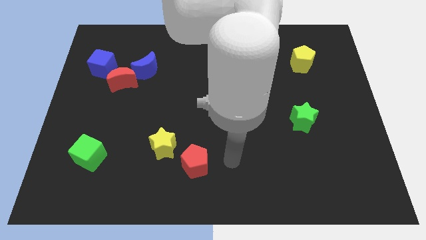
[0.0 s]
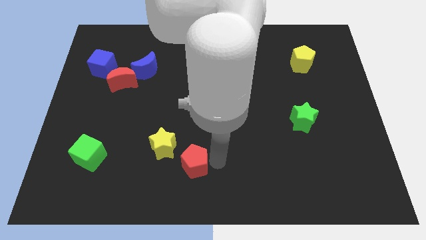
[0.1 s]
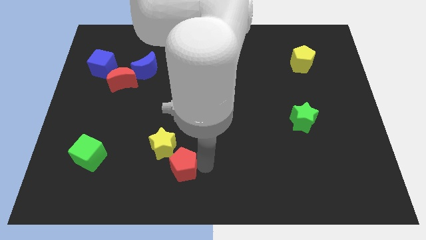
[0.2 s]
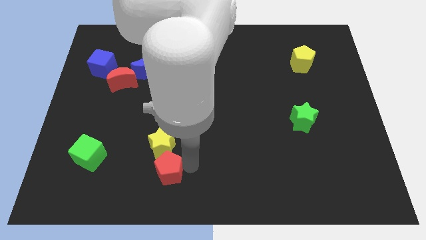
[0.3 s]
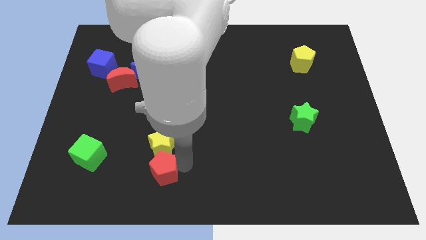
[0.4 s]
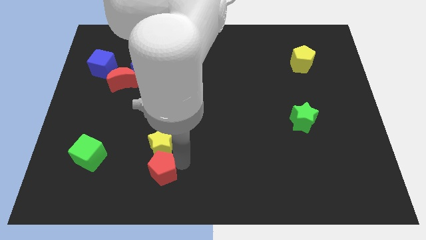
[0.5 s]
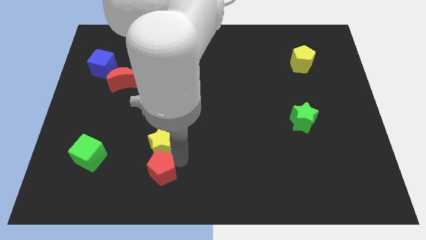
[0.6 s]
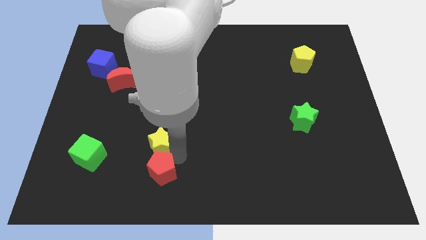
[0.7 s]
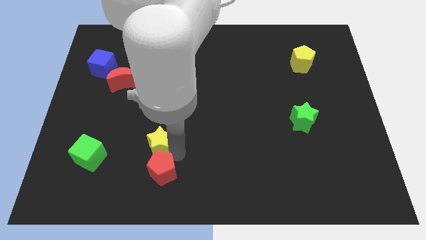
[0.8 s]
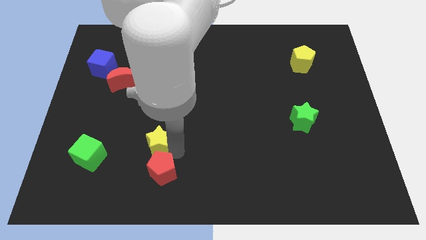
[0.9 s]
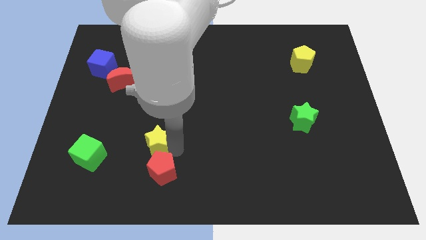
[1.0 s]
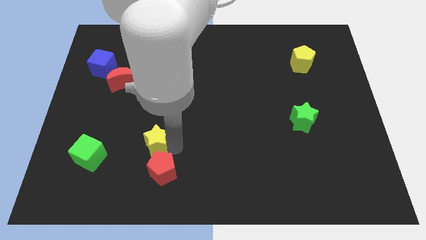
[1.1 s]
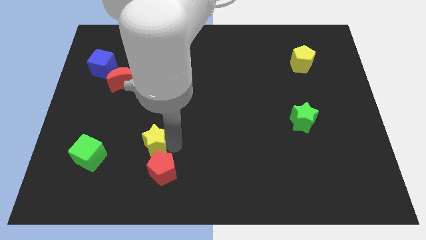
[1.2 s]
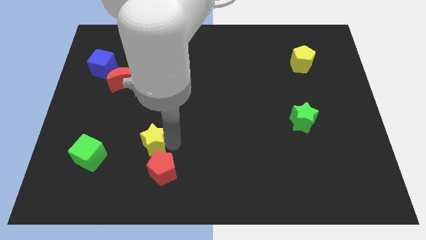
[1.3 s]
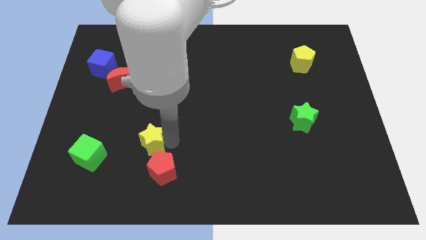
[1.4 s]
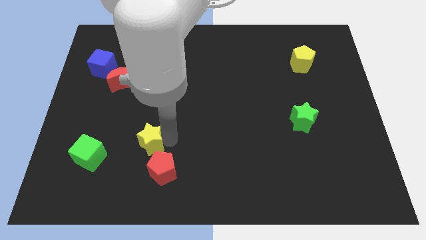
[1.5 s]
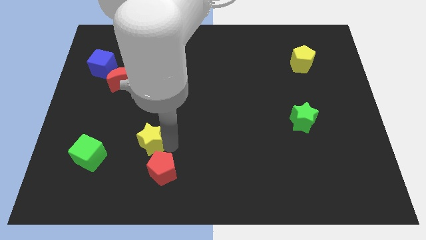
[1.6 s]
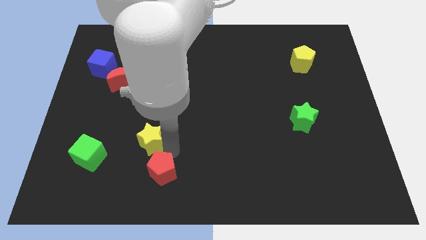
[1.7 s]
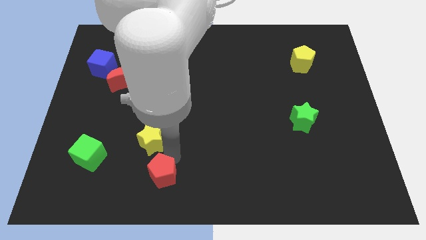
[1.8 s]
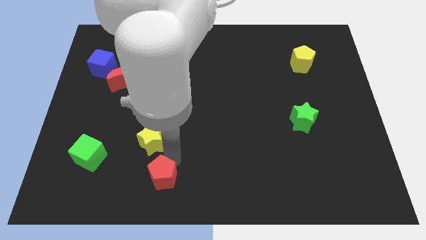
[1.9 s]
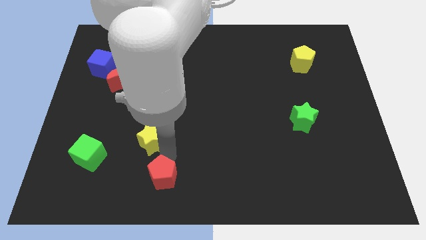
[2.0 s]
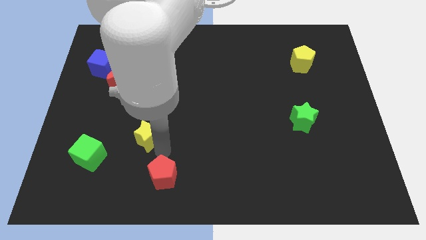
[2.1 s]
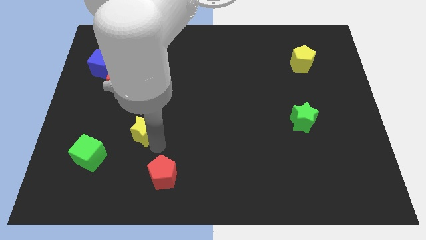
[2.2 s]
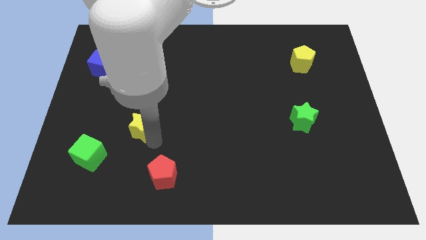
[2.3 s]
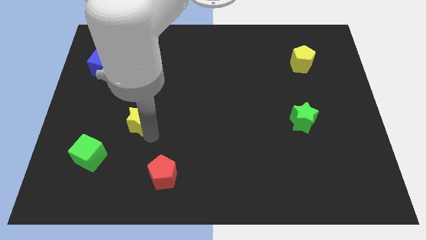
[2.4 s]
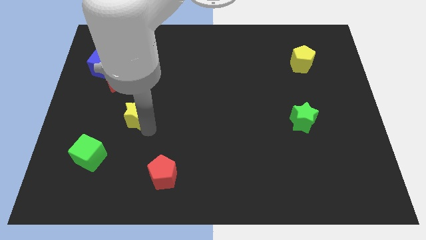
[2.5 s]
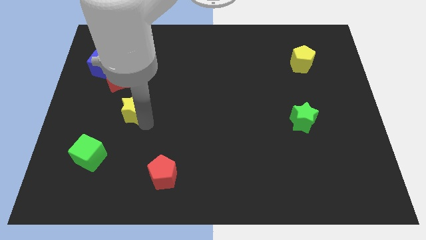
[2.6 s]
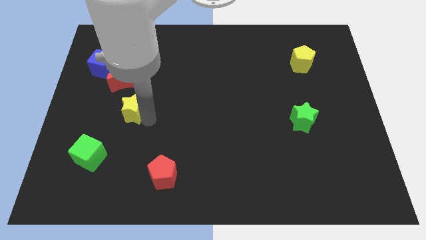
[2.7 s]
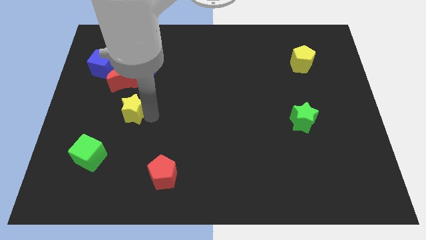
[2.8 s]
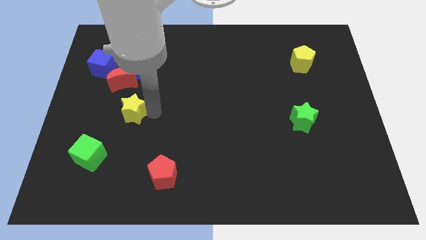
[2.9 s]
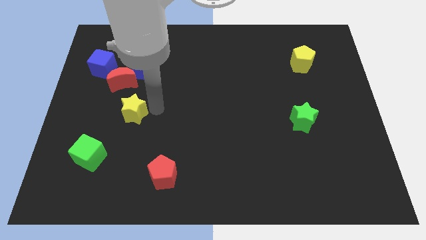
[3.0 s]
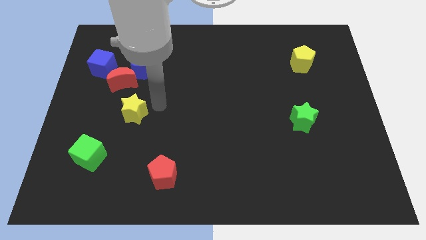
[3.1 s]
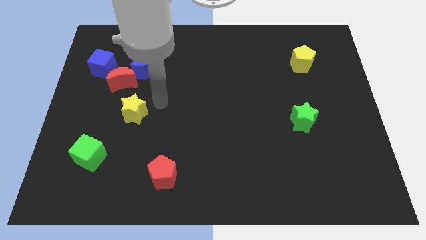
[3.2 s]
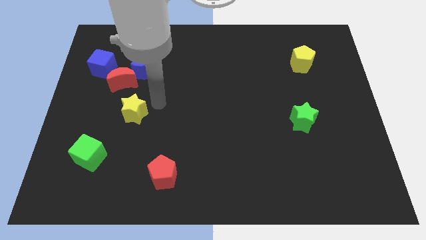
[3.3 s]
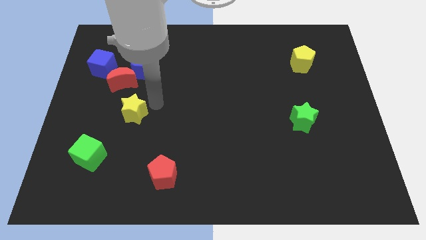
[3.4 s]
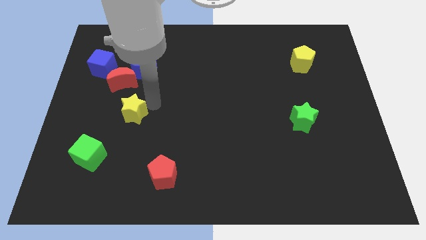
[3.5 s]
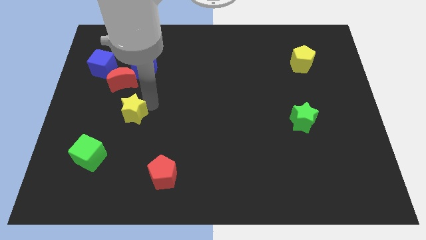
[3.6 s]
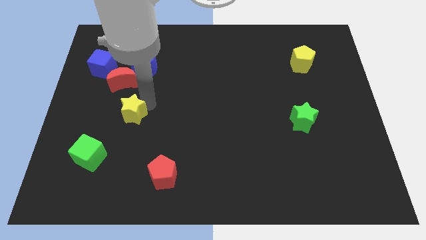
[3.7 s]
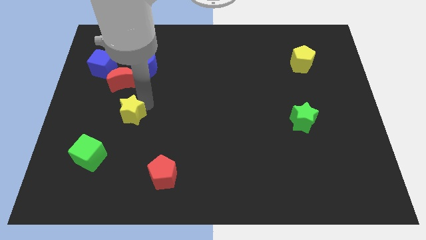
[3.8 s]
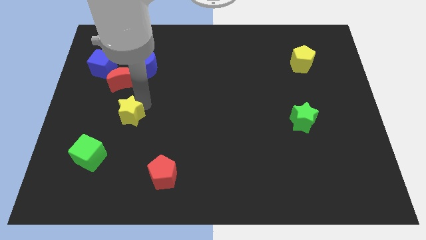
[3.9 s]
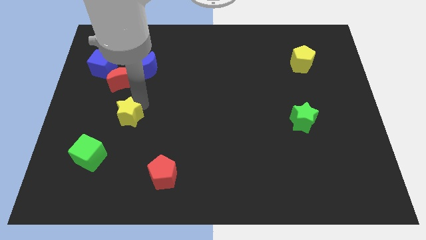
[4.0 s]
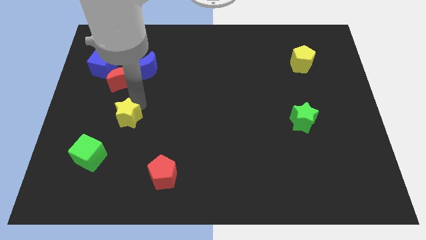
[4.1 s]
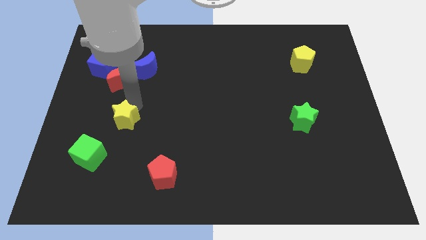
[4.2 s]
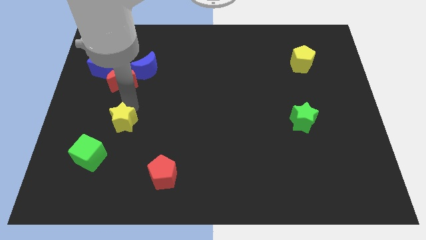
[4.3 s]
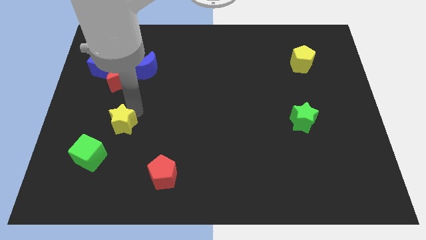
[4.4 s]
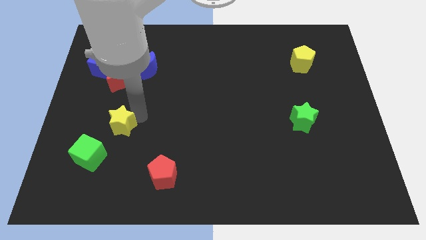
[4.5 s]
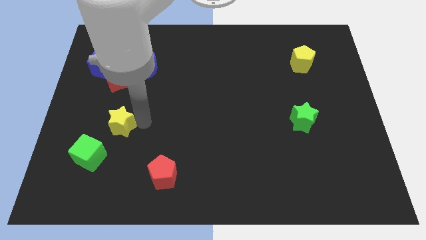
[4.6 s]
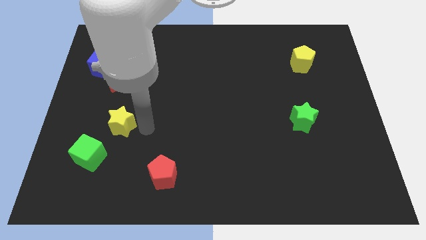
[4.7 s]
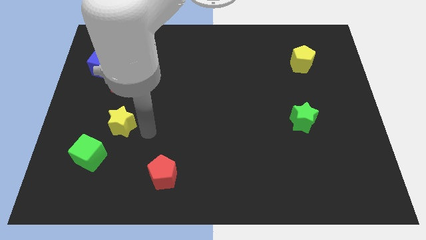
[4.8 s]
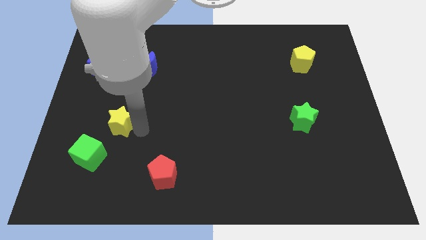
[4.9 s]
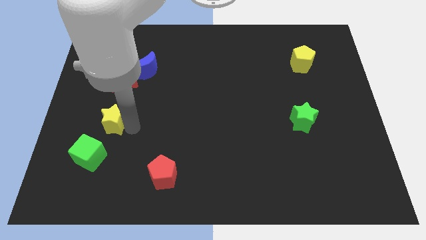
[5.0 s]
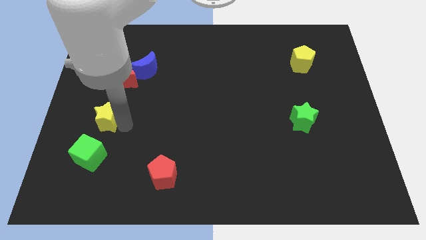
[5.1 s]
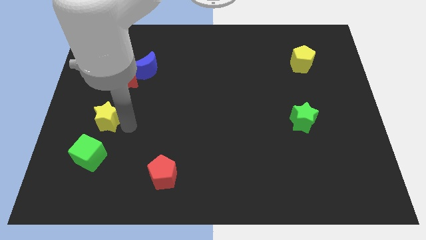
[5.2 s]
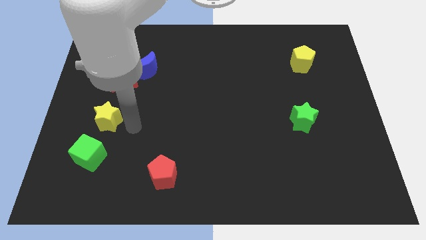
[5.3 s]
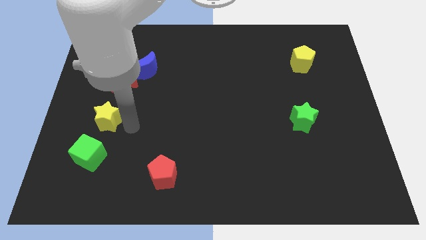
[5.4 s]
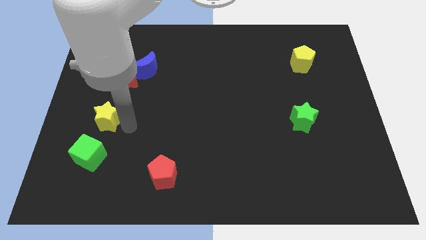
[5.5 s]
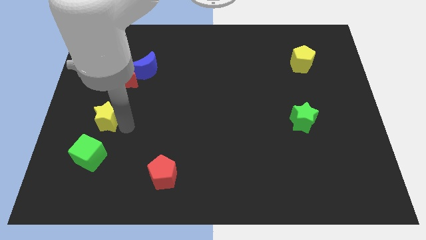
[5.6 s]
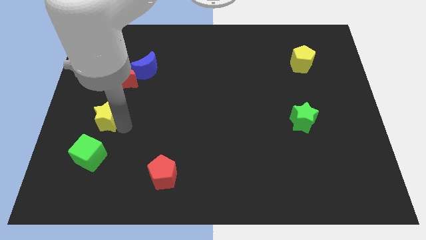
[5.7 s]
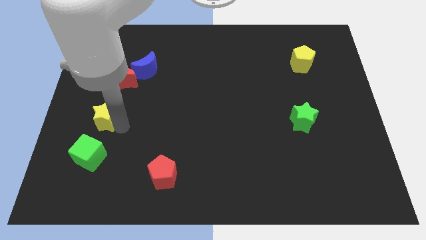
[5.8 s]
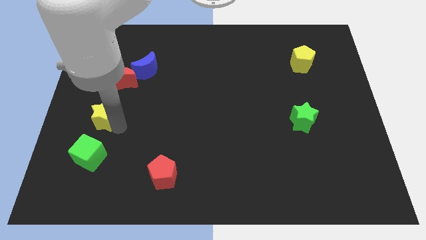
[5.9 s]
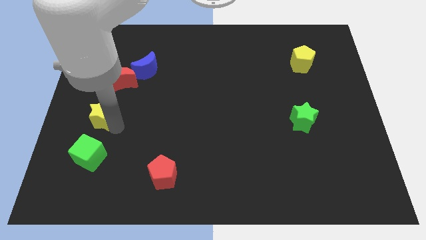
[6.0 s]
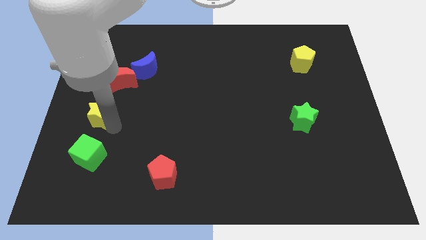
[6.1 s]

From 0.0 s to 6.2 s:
put the yellow star to the left side of the board
